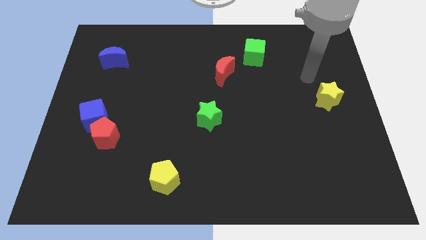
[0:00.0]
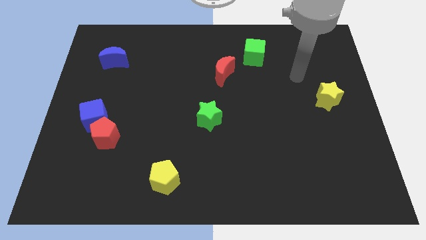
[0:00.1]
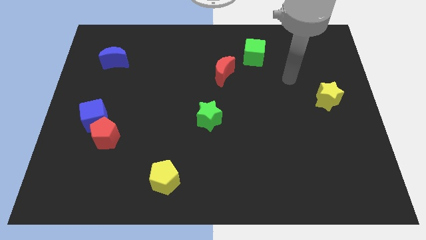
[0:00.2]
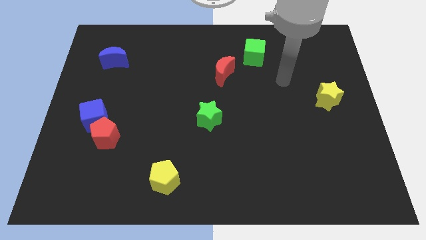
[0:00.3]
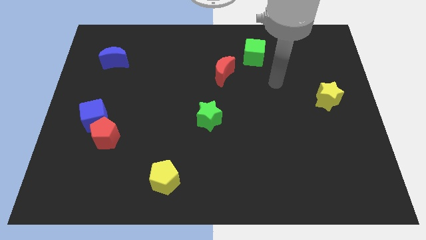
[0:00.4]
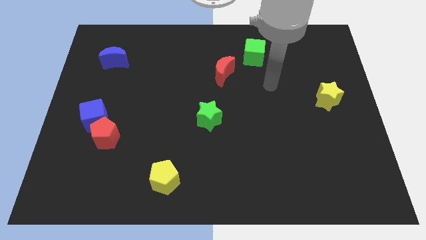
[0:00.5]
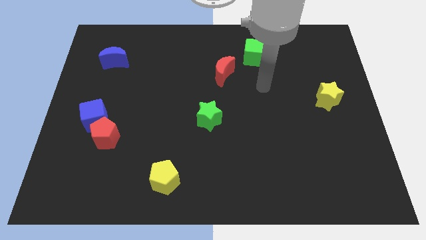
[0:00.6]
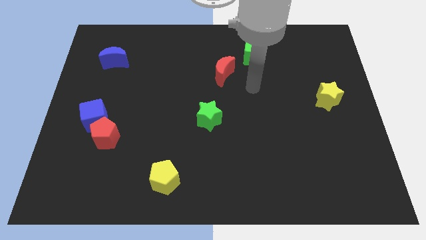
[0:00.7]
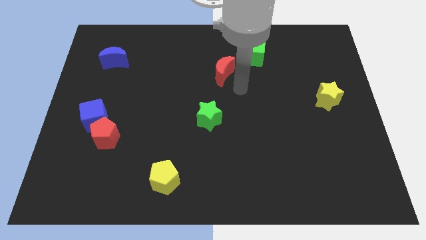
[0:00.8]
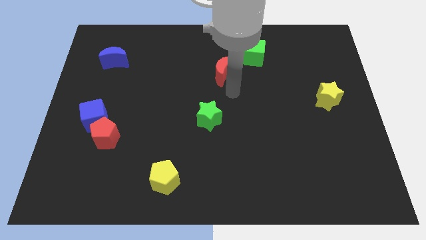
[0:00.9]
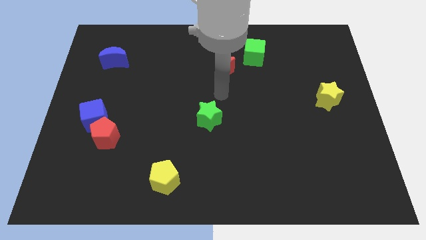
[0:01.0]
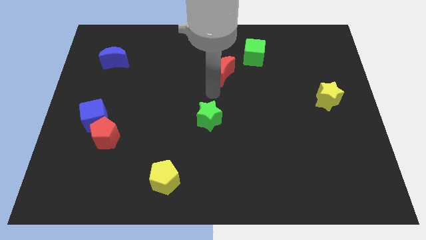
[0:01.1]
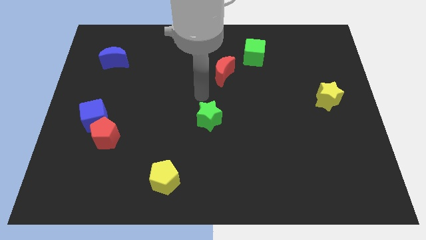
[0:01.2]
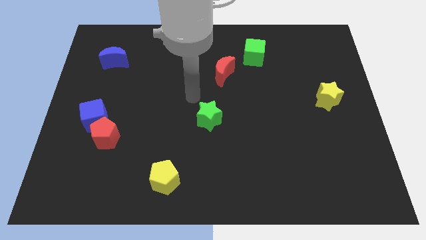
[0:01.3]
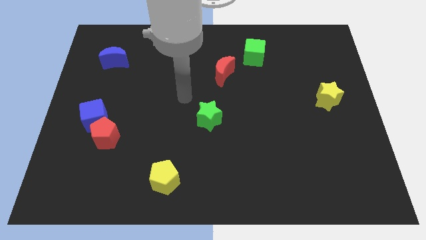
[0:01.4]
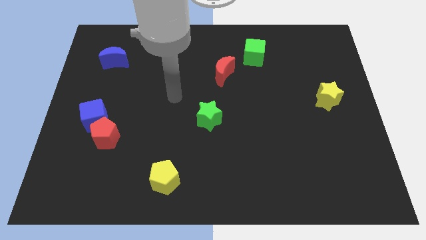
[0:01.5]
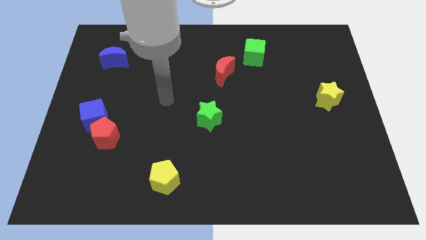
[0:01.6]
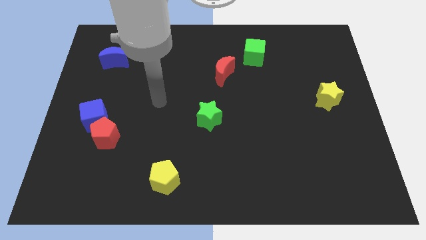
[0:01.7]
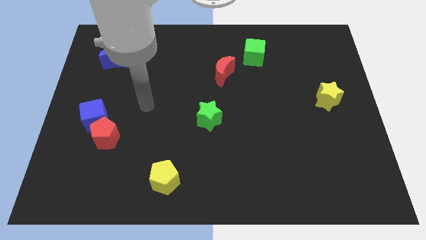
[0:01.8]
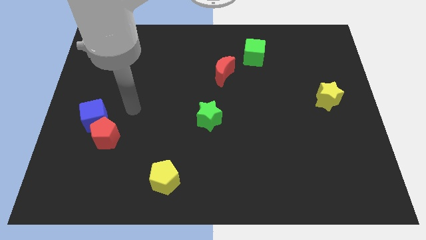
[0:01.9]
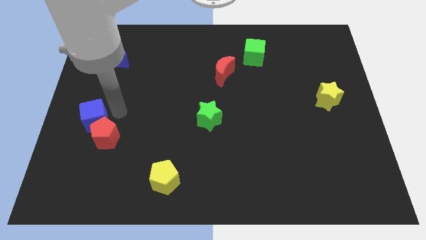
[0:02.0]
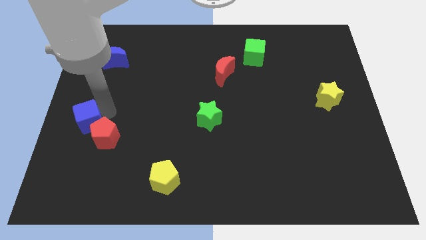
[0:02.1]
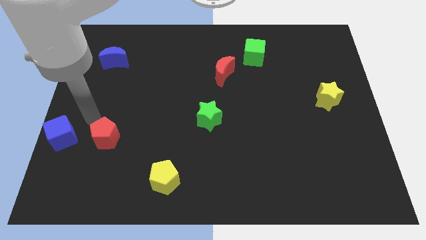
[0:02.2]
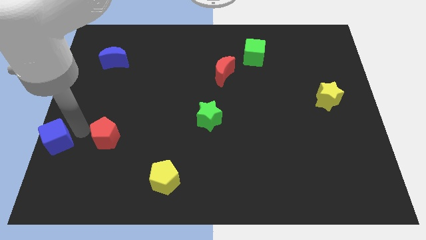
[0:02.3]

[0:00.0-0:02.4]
separate the red pentagon from the blue cube

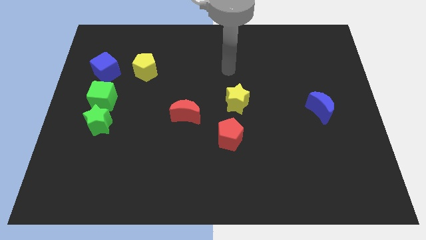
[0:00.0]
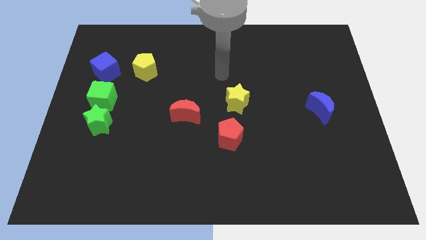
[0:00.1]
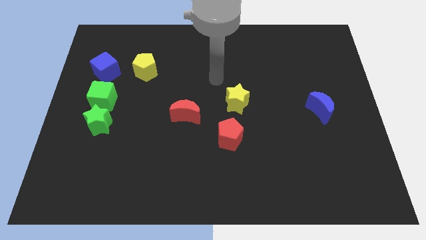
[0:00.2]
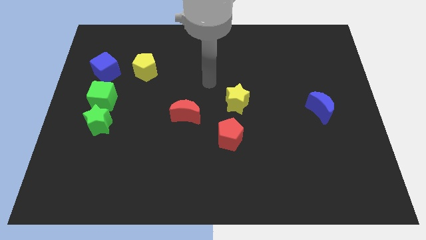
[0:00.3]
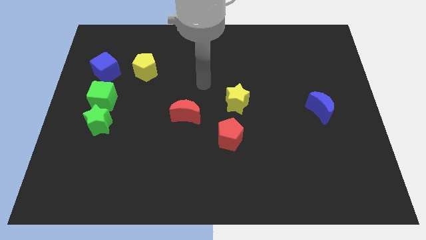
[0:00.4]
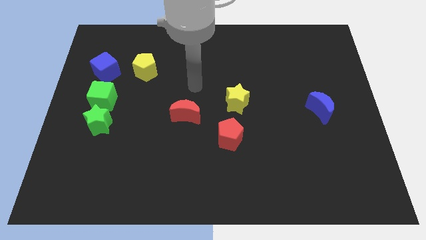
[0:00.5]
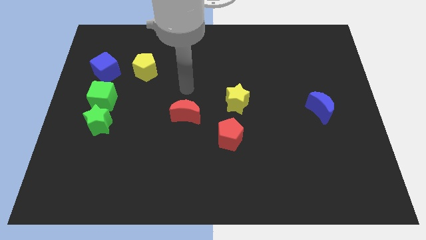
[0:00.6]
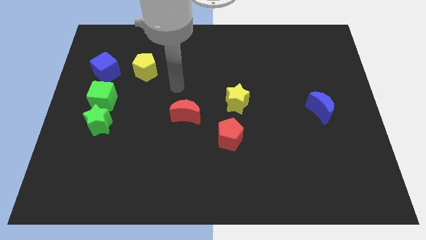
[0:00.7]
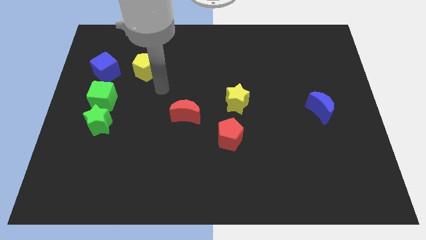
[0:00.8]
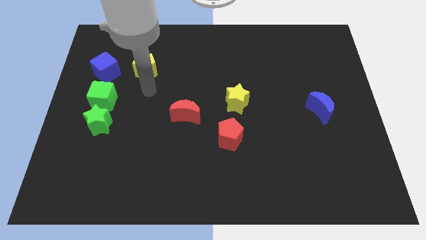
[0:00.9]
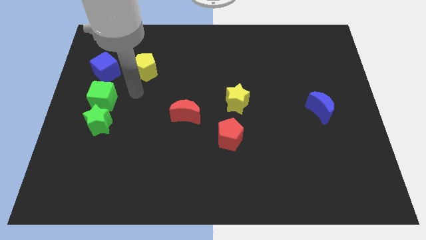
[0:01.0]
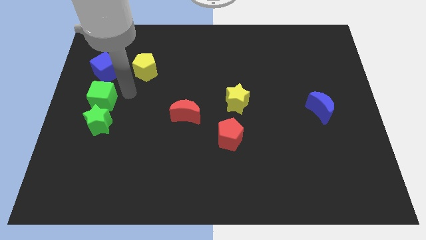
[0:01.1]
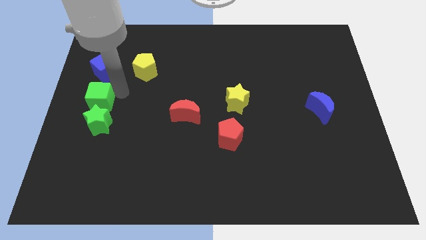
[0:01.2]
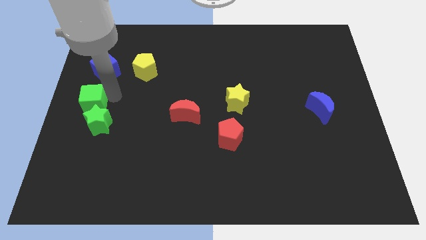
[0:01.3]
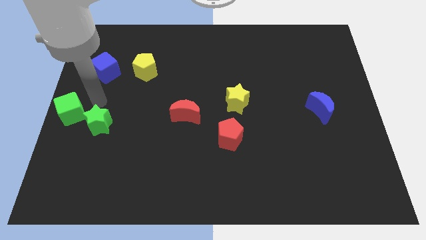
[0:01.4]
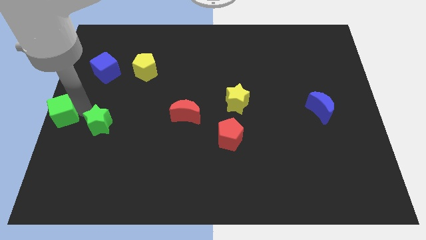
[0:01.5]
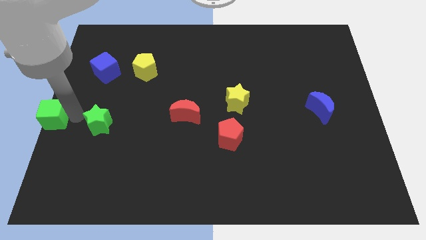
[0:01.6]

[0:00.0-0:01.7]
pull the green star apart from the green cube

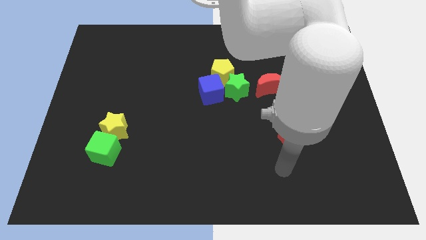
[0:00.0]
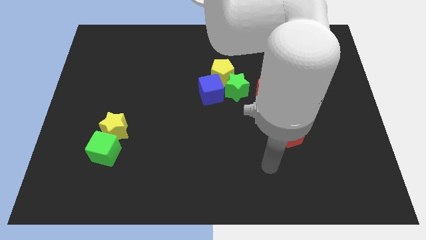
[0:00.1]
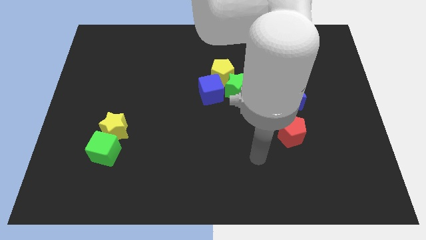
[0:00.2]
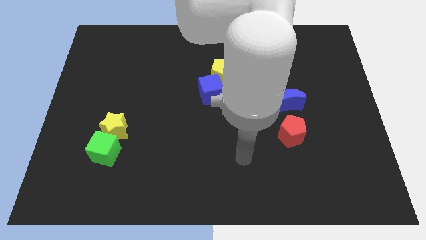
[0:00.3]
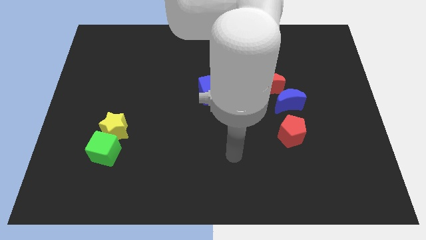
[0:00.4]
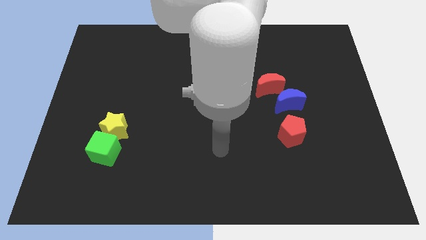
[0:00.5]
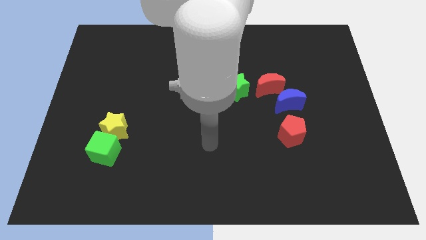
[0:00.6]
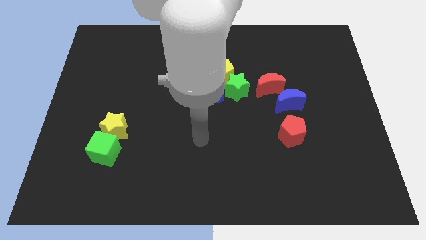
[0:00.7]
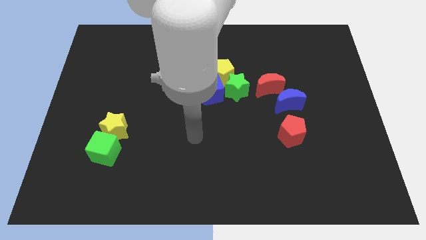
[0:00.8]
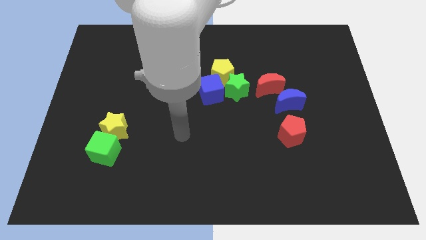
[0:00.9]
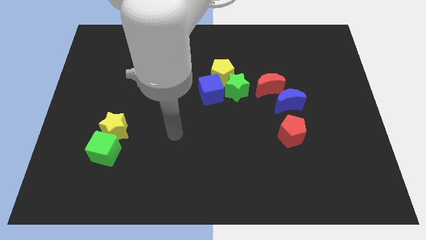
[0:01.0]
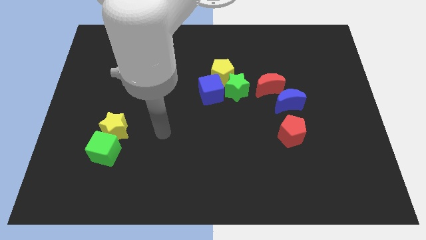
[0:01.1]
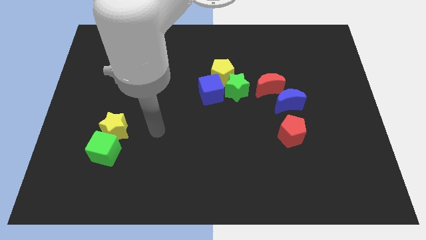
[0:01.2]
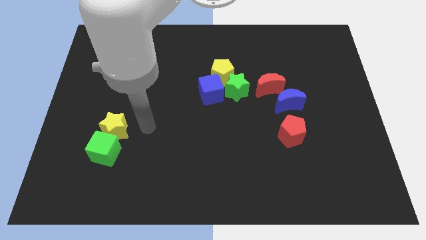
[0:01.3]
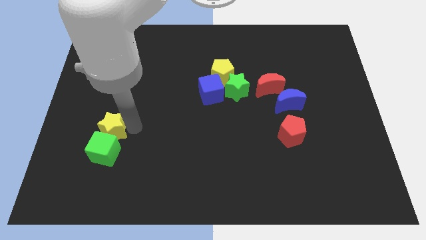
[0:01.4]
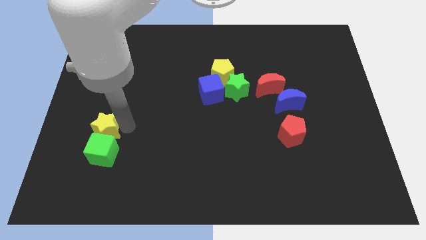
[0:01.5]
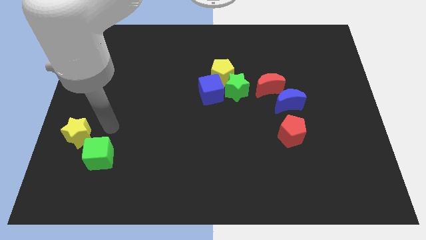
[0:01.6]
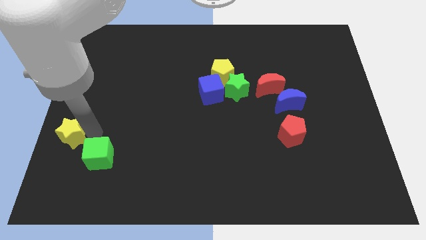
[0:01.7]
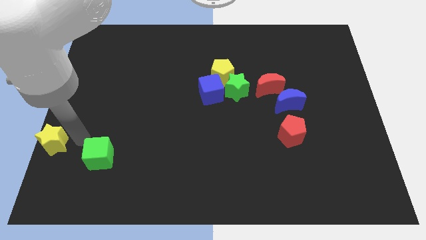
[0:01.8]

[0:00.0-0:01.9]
separate the green cube from the yellow star

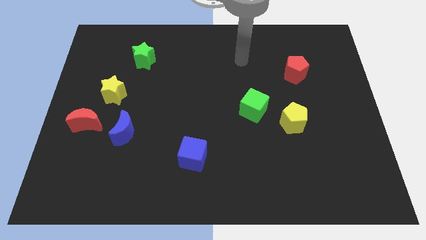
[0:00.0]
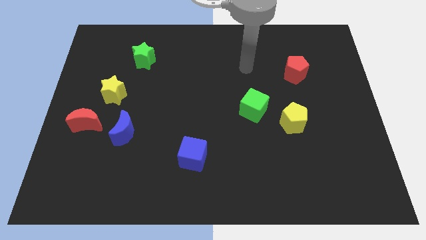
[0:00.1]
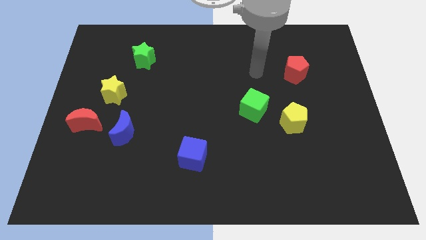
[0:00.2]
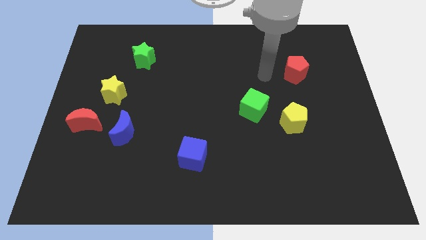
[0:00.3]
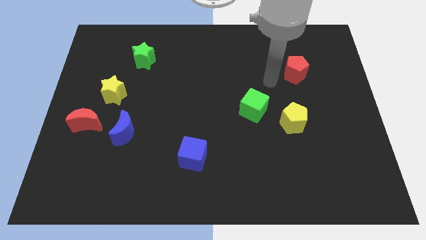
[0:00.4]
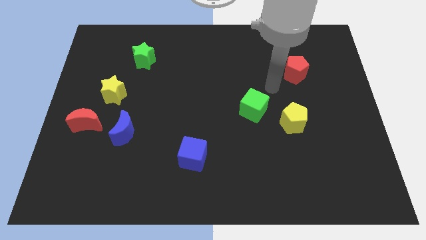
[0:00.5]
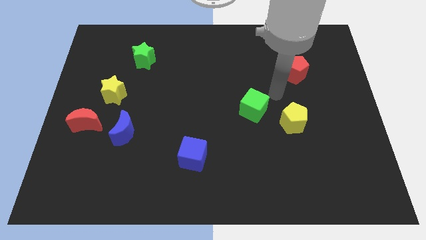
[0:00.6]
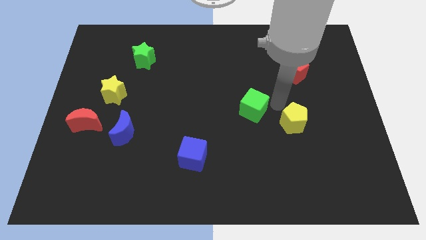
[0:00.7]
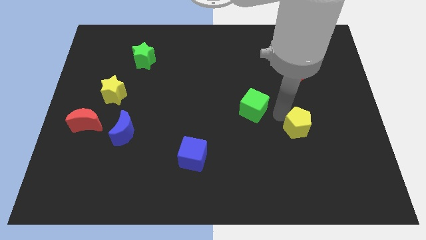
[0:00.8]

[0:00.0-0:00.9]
separate the green cube from the yellow pentagon

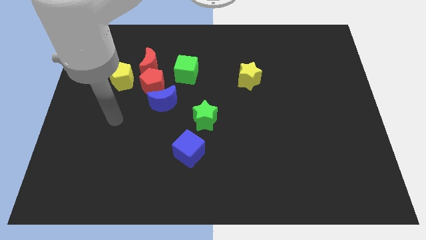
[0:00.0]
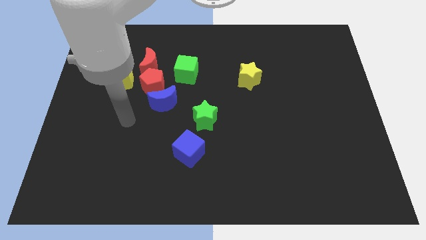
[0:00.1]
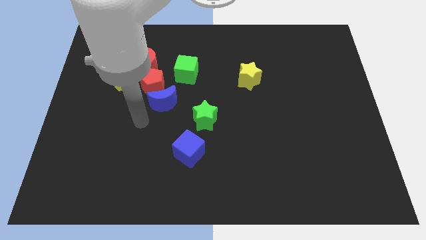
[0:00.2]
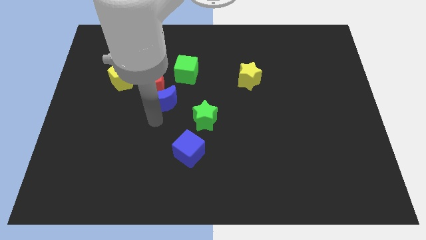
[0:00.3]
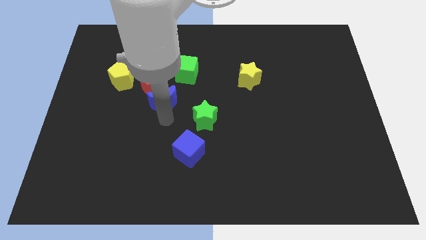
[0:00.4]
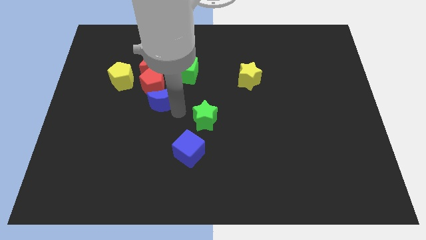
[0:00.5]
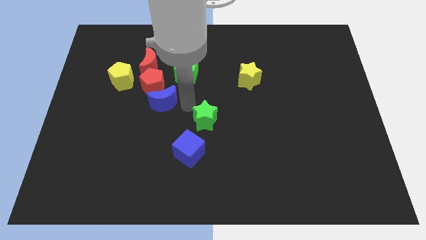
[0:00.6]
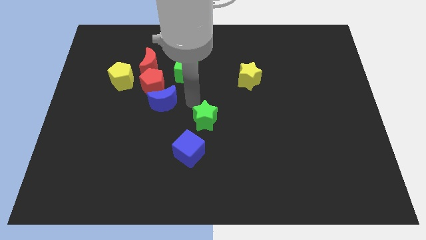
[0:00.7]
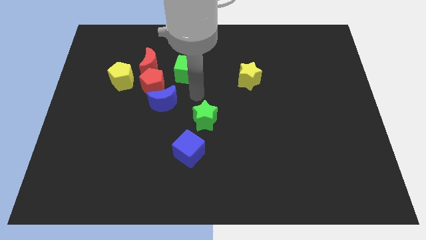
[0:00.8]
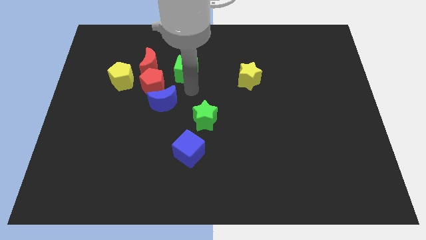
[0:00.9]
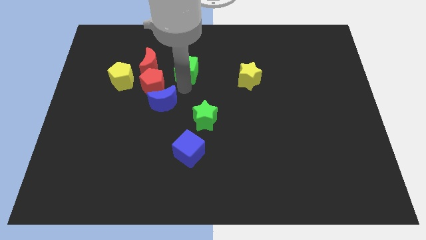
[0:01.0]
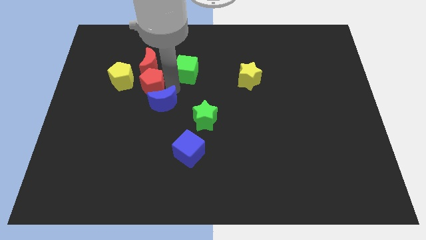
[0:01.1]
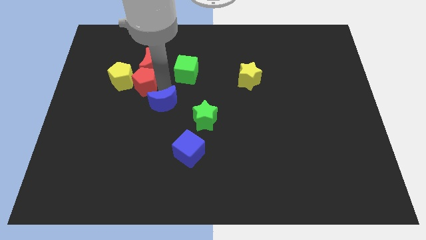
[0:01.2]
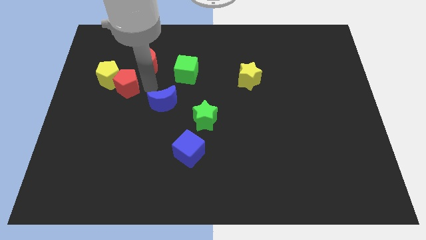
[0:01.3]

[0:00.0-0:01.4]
move the blue moon away from the red pentagon

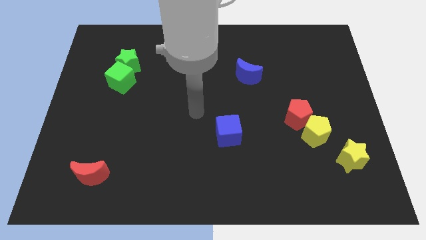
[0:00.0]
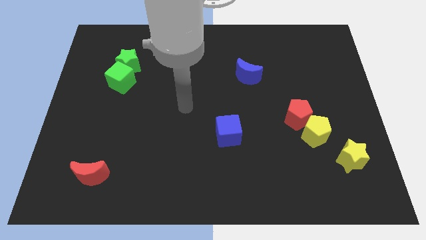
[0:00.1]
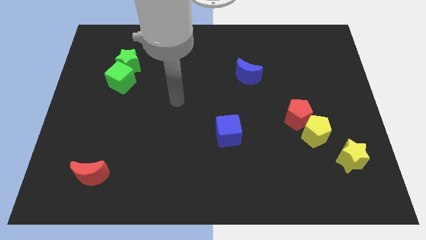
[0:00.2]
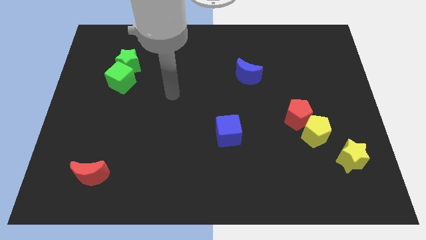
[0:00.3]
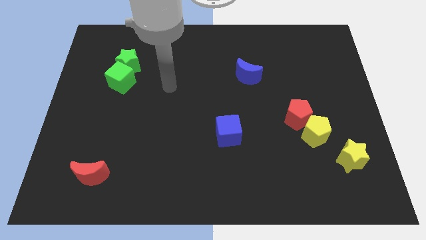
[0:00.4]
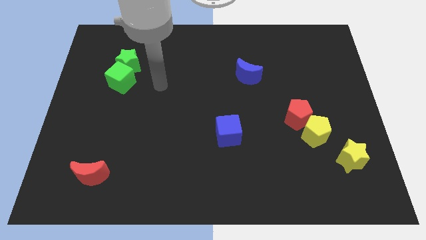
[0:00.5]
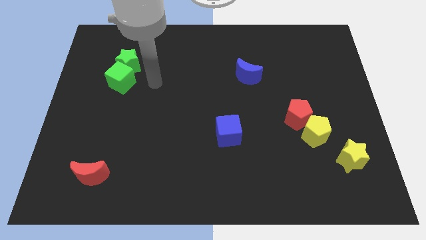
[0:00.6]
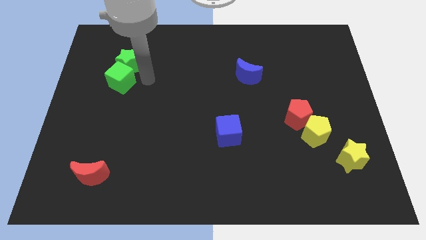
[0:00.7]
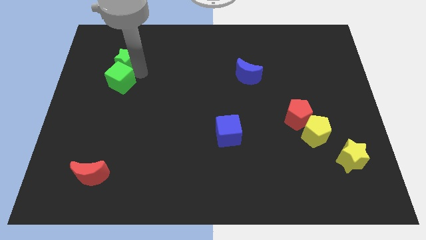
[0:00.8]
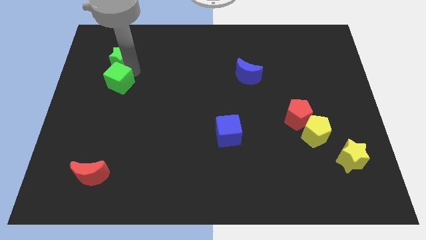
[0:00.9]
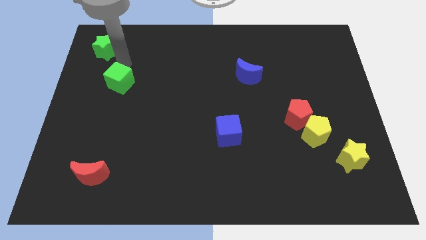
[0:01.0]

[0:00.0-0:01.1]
separate the green cube from the green star
